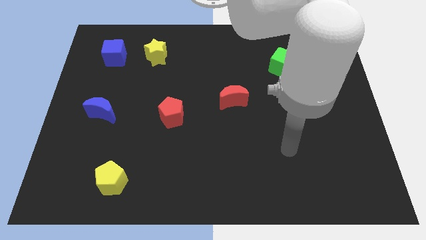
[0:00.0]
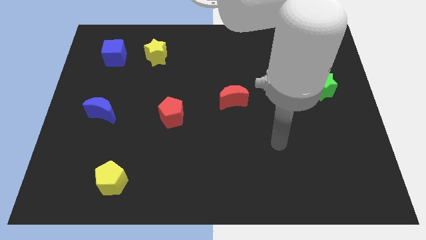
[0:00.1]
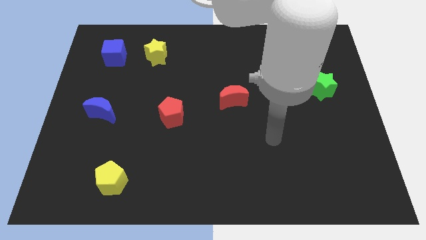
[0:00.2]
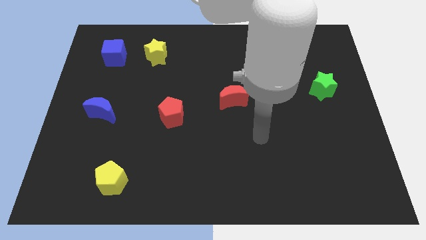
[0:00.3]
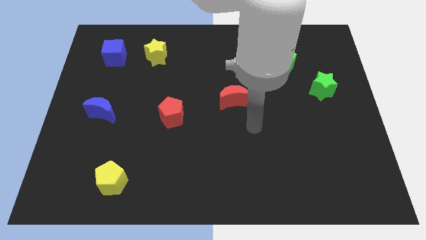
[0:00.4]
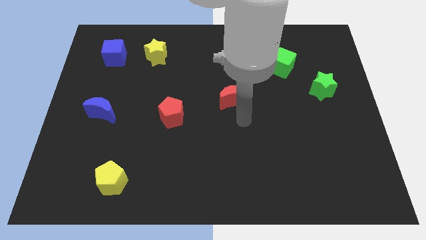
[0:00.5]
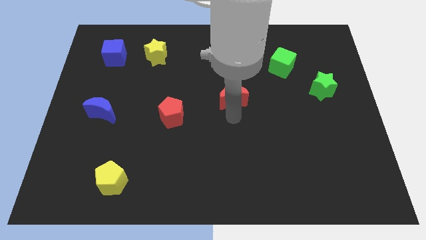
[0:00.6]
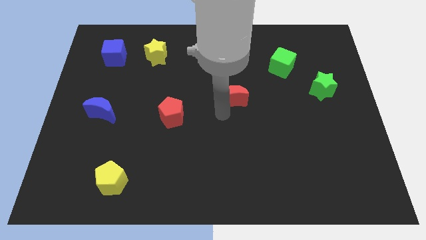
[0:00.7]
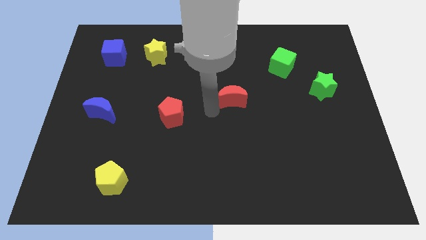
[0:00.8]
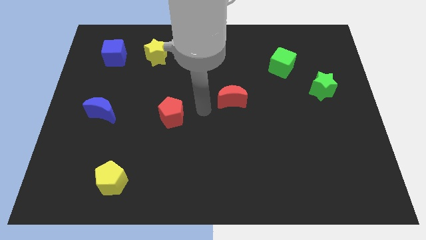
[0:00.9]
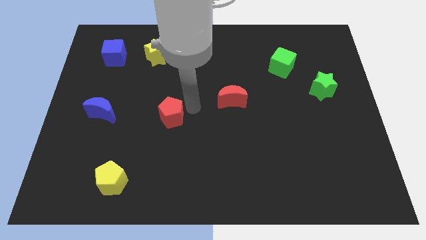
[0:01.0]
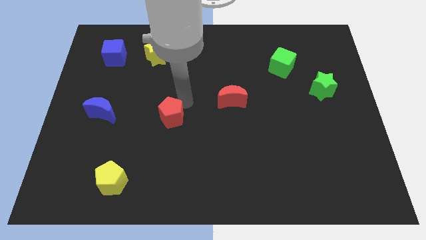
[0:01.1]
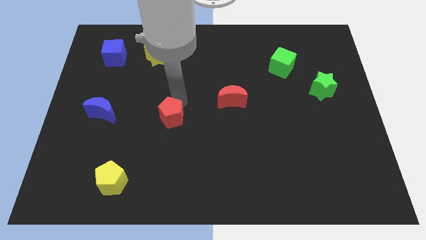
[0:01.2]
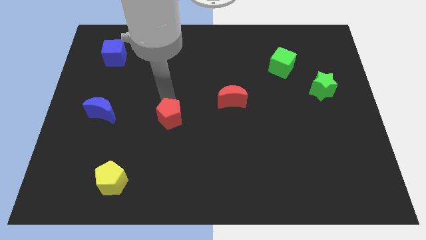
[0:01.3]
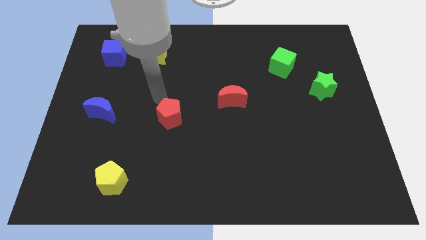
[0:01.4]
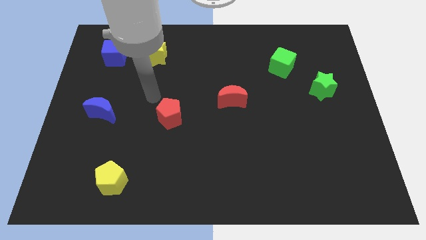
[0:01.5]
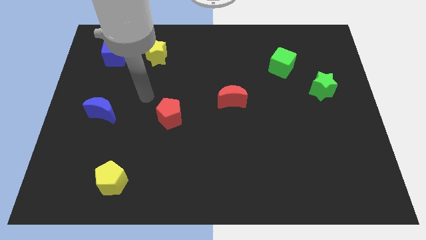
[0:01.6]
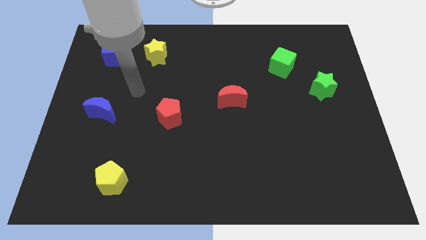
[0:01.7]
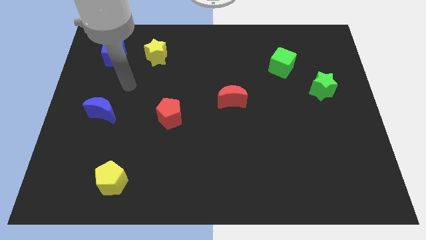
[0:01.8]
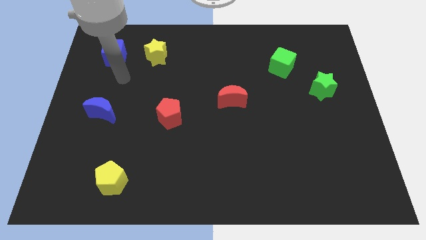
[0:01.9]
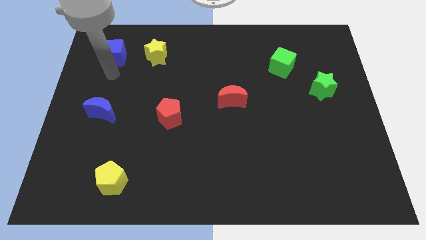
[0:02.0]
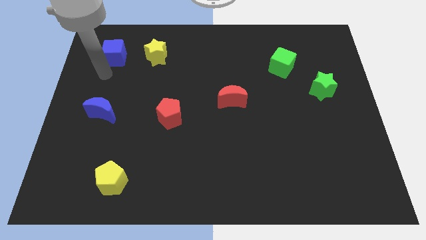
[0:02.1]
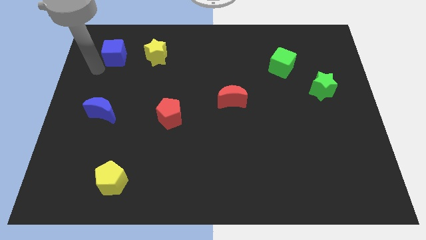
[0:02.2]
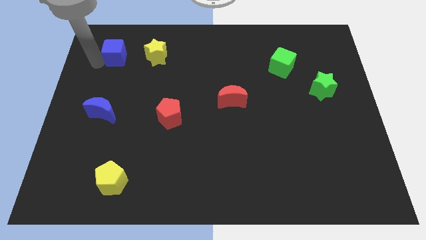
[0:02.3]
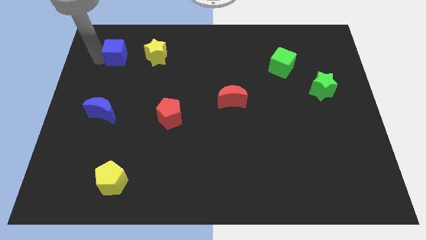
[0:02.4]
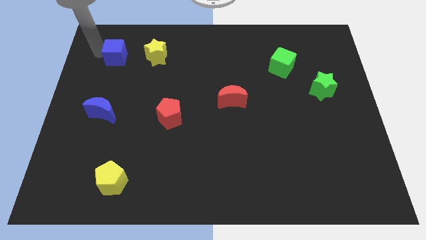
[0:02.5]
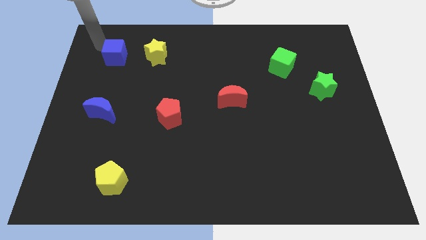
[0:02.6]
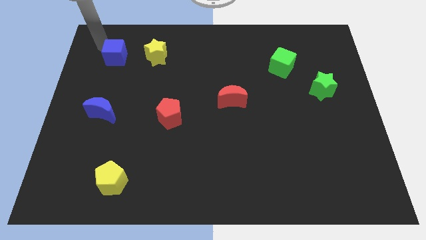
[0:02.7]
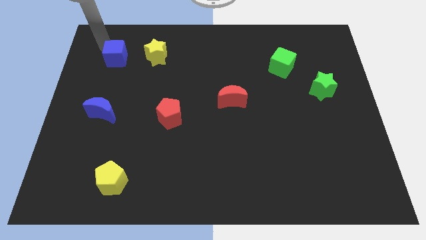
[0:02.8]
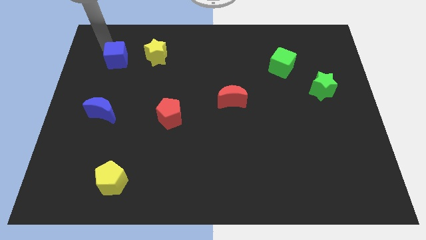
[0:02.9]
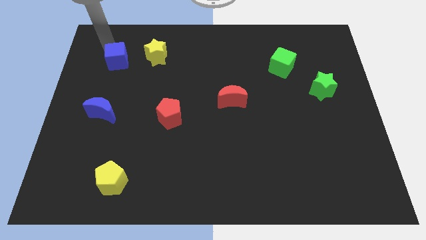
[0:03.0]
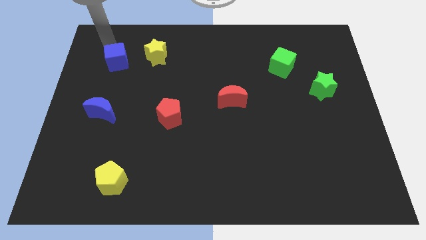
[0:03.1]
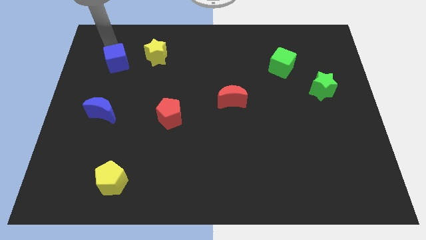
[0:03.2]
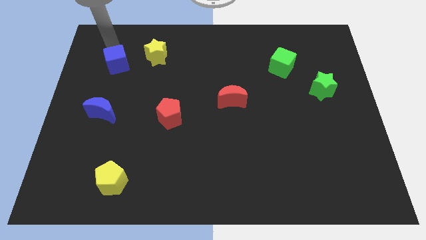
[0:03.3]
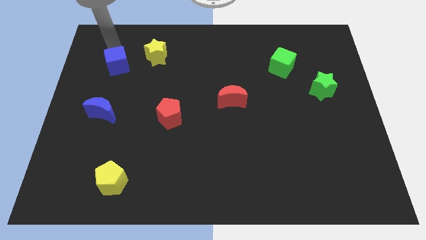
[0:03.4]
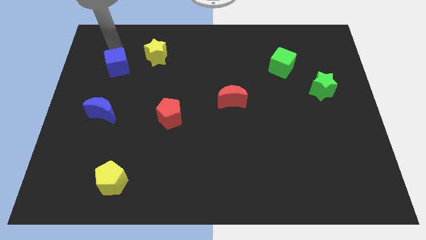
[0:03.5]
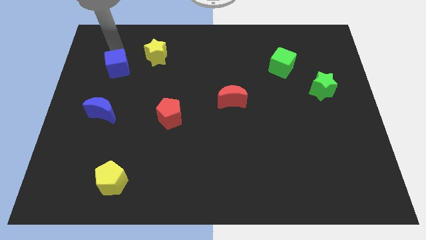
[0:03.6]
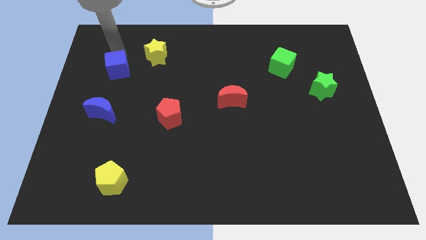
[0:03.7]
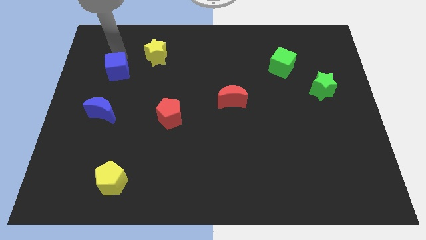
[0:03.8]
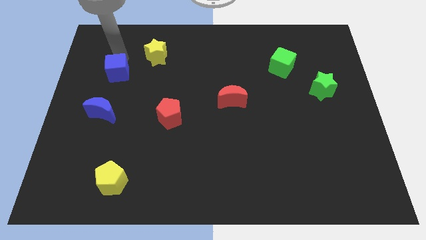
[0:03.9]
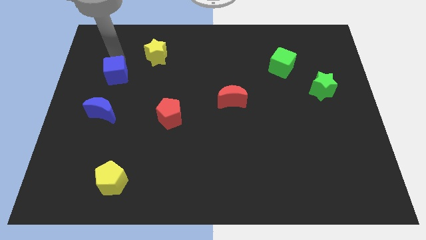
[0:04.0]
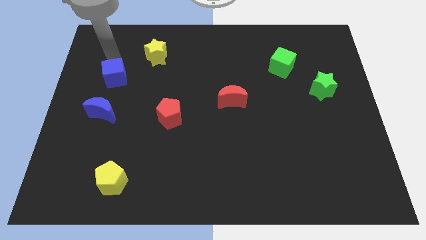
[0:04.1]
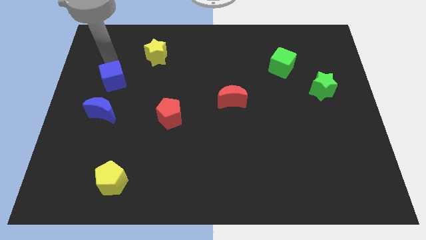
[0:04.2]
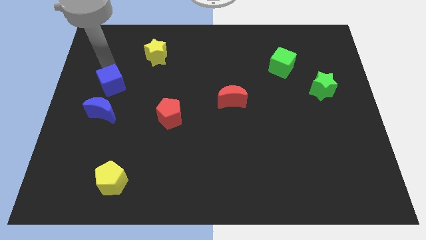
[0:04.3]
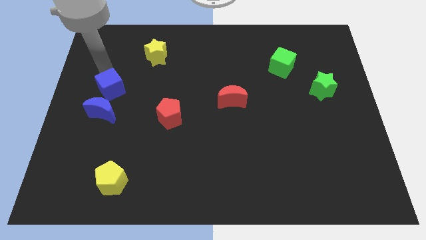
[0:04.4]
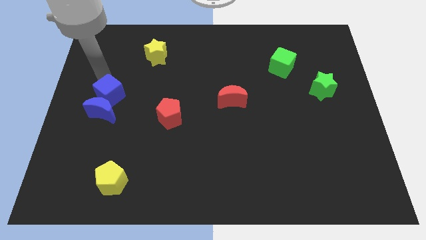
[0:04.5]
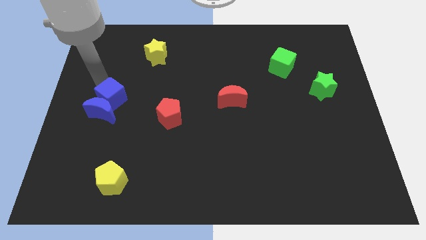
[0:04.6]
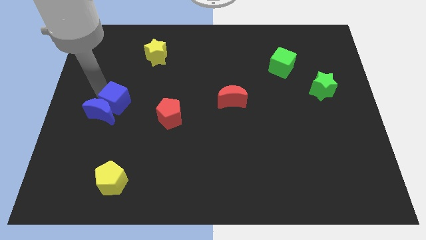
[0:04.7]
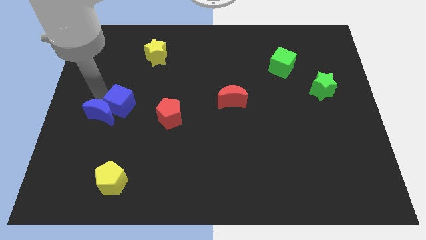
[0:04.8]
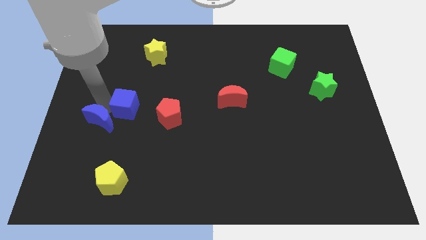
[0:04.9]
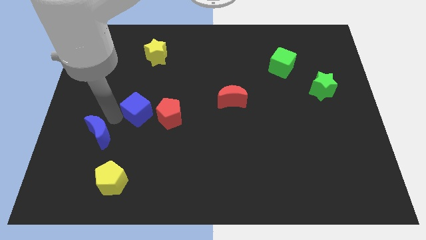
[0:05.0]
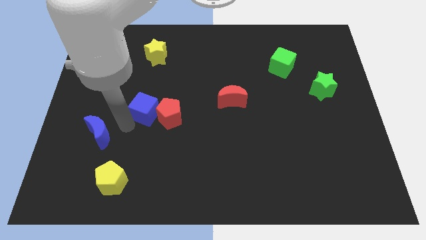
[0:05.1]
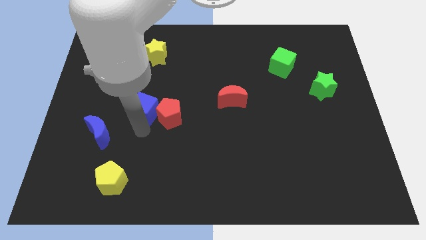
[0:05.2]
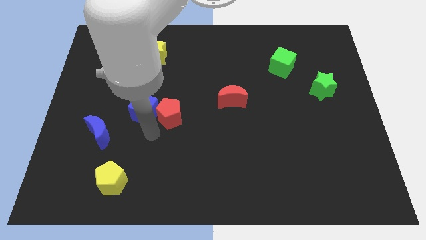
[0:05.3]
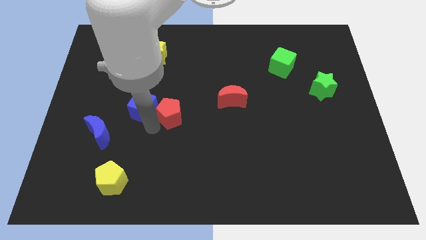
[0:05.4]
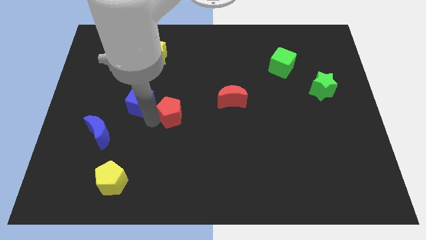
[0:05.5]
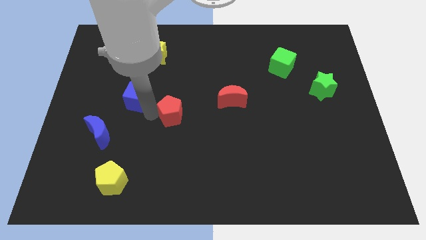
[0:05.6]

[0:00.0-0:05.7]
push the blue cube to the bottom of the yellow star

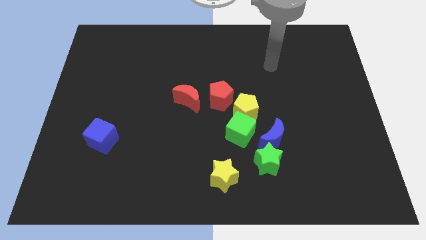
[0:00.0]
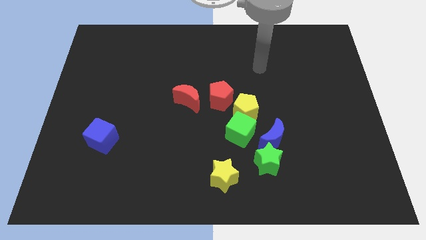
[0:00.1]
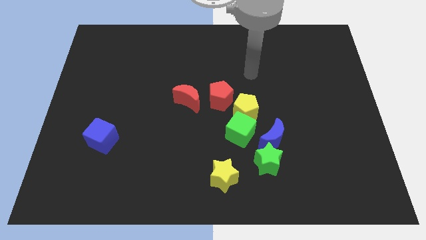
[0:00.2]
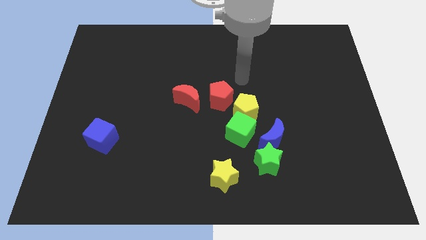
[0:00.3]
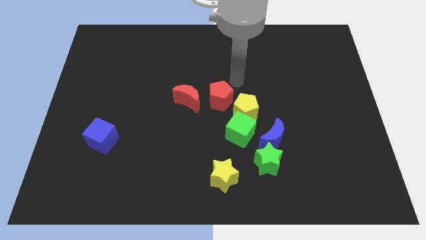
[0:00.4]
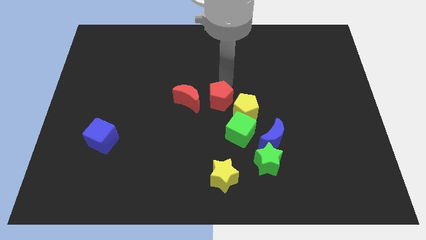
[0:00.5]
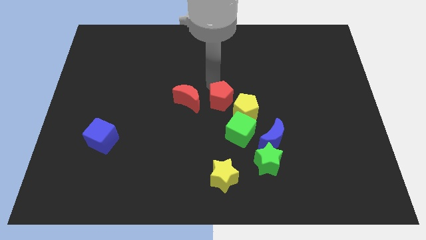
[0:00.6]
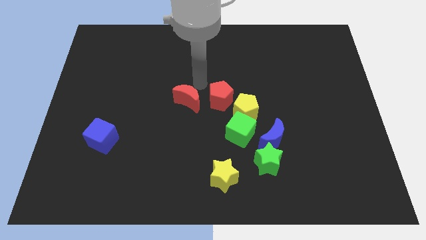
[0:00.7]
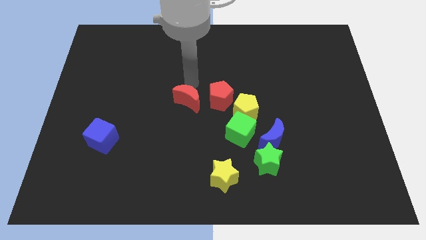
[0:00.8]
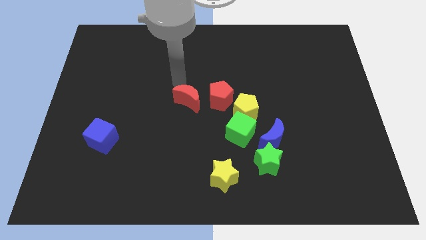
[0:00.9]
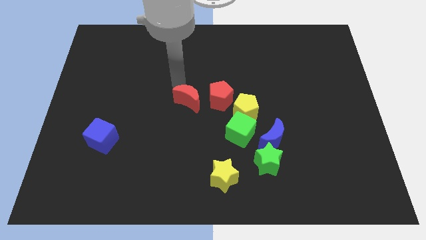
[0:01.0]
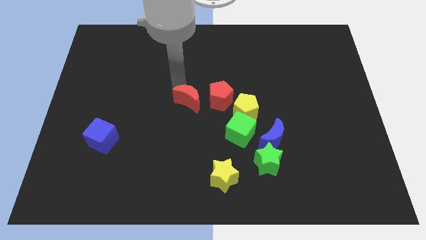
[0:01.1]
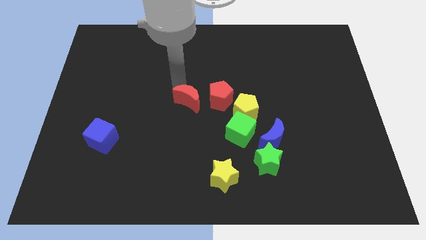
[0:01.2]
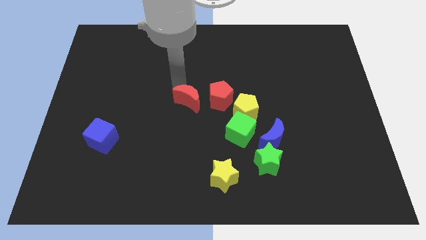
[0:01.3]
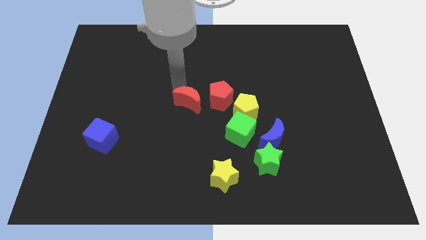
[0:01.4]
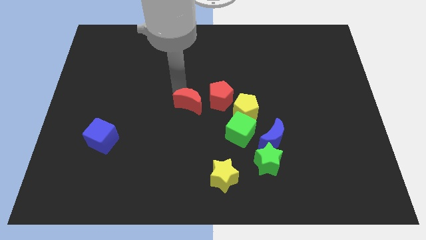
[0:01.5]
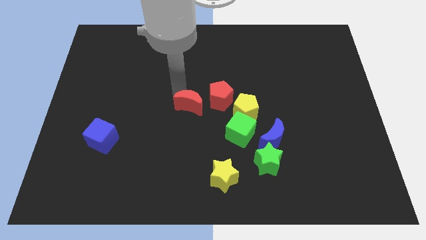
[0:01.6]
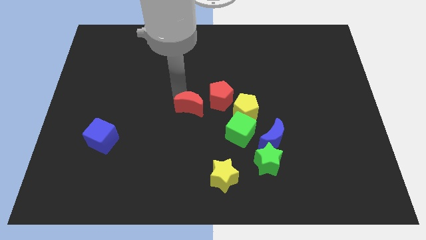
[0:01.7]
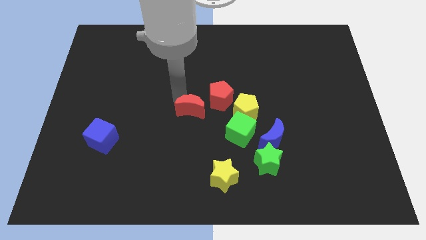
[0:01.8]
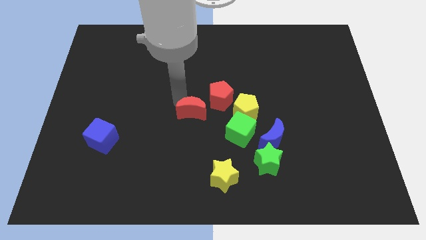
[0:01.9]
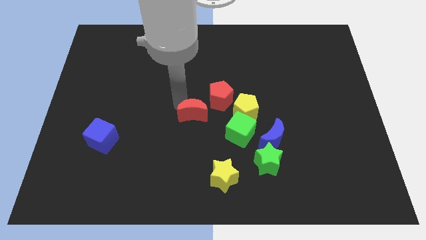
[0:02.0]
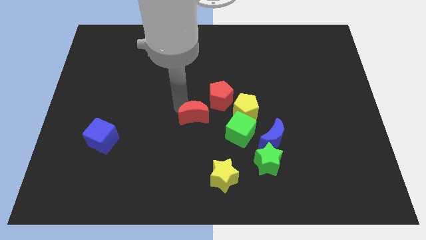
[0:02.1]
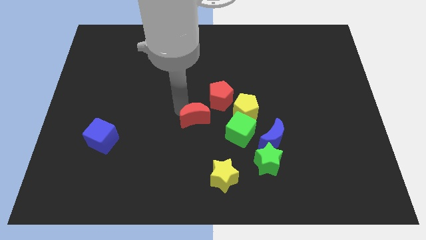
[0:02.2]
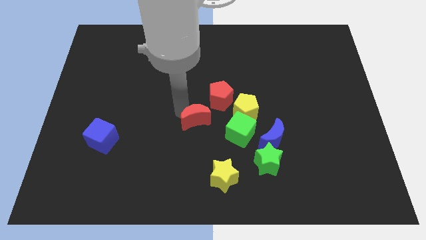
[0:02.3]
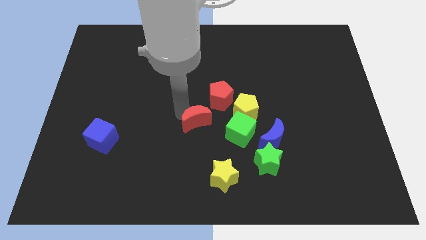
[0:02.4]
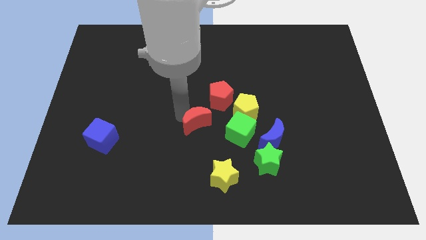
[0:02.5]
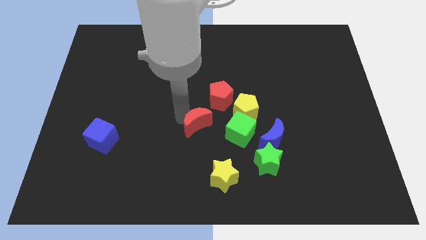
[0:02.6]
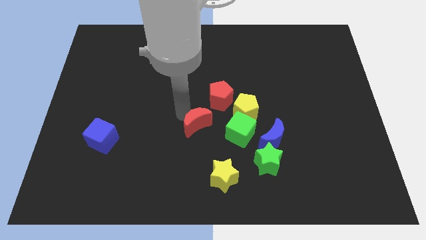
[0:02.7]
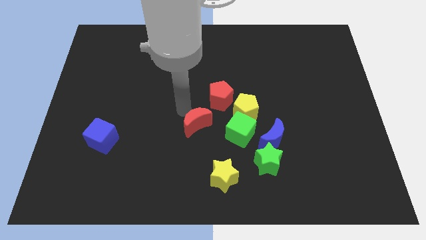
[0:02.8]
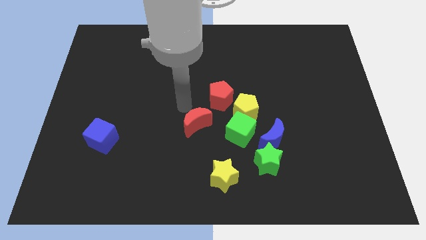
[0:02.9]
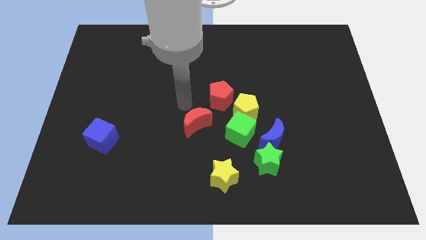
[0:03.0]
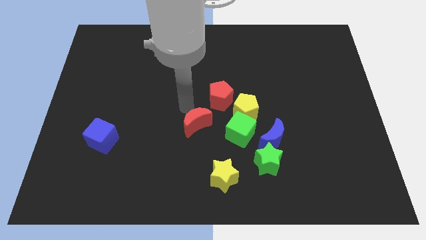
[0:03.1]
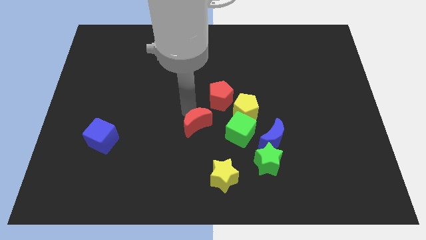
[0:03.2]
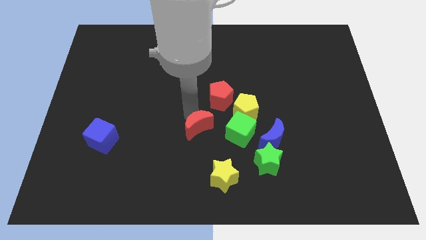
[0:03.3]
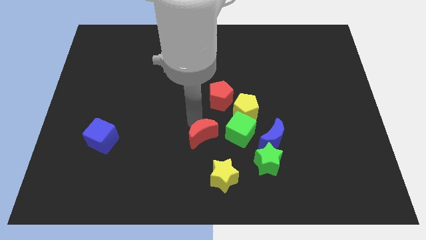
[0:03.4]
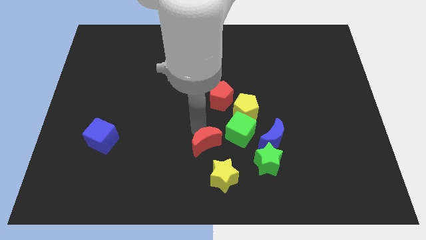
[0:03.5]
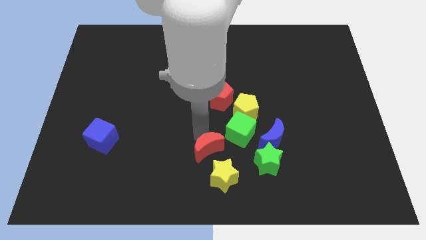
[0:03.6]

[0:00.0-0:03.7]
slide the red moon just left of the green star
